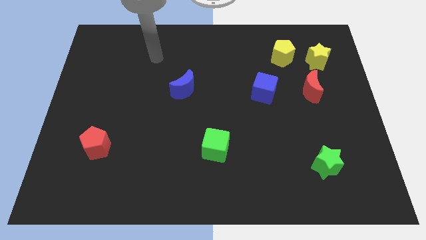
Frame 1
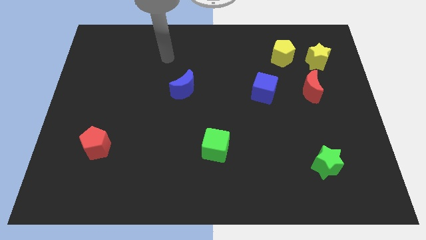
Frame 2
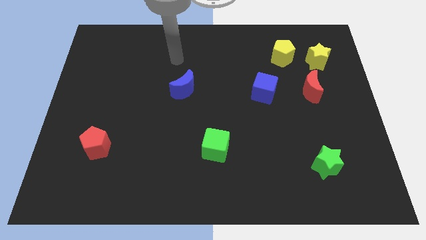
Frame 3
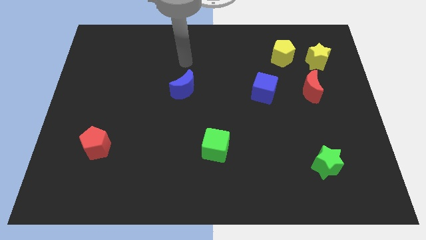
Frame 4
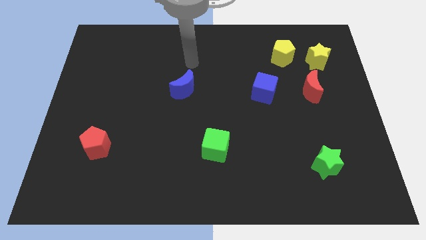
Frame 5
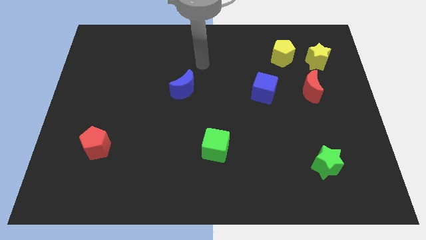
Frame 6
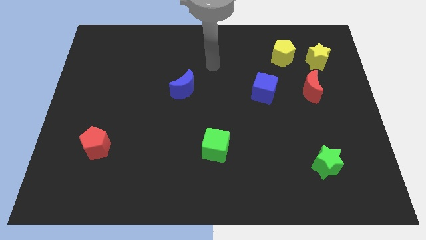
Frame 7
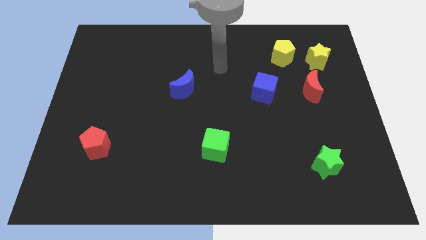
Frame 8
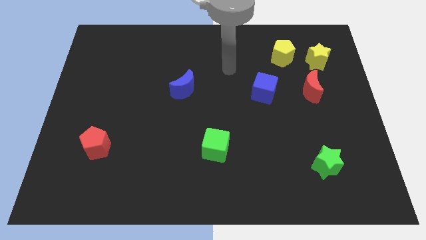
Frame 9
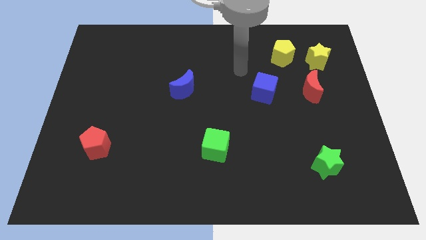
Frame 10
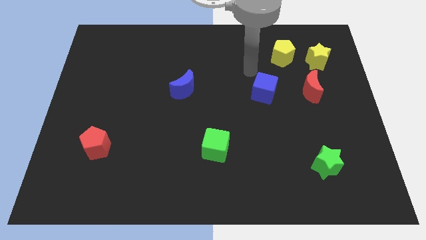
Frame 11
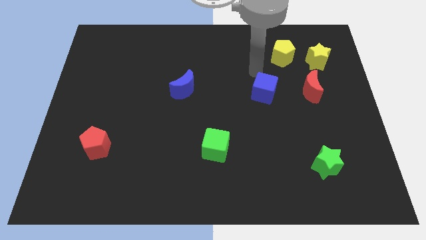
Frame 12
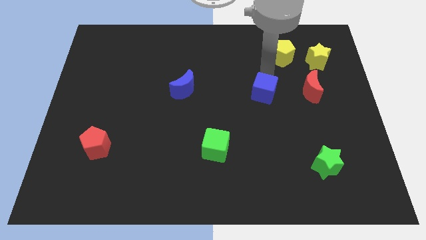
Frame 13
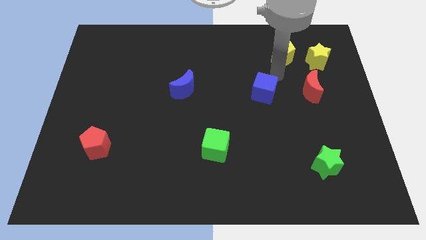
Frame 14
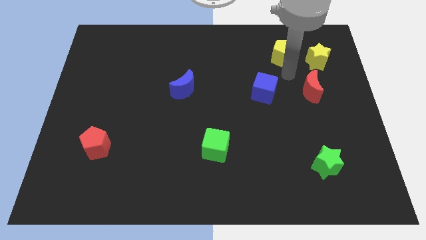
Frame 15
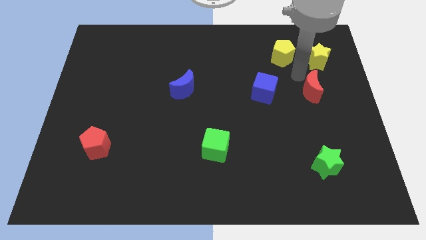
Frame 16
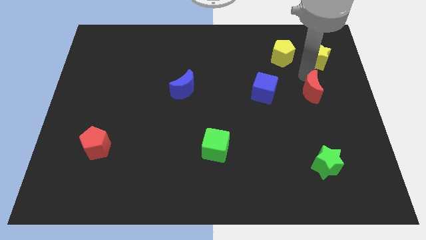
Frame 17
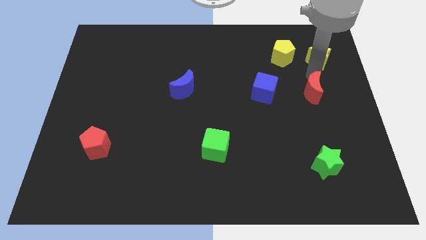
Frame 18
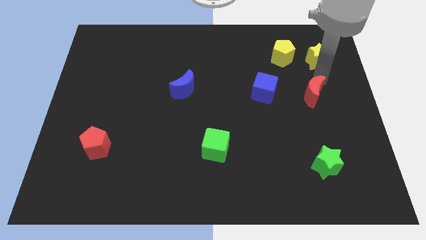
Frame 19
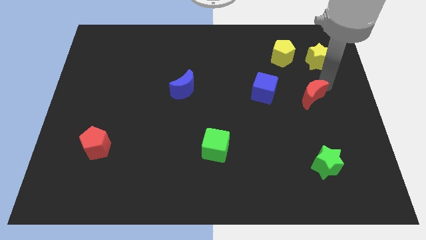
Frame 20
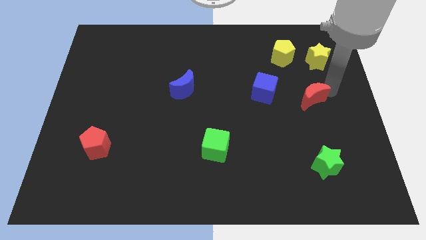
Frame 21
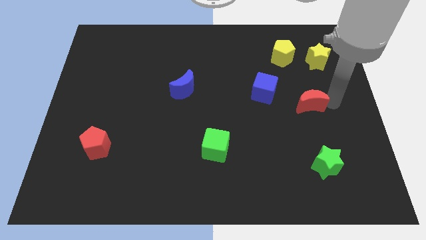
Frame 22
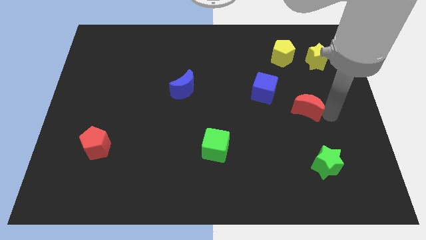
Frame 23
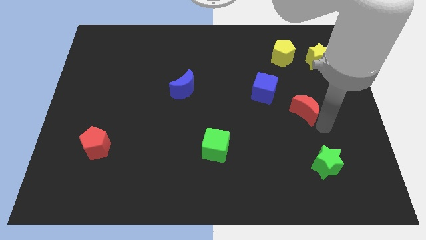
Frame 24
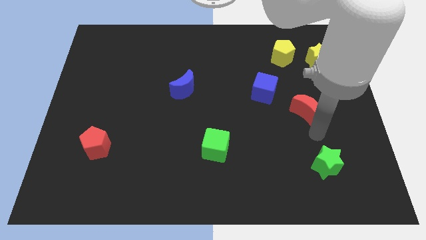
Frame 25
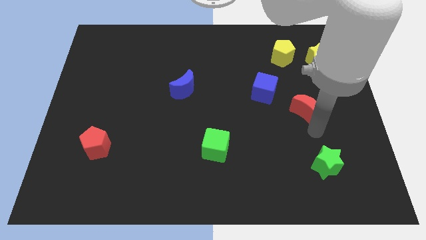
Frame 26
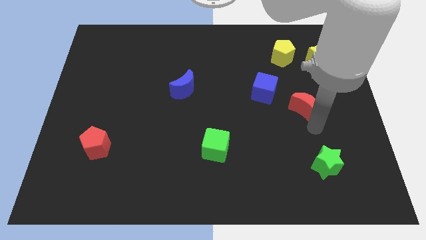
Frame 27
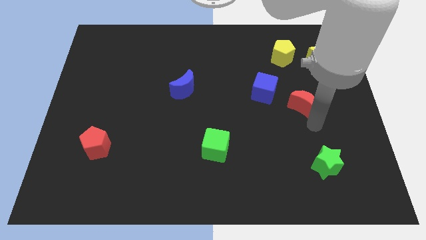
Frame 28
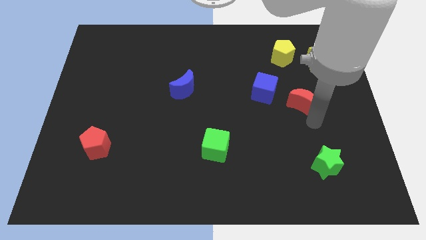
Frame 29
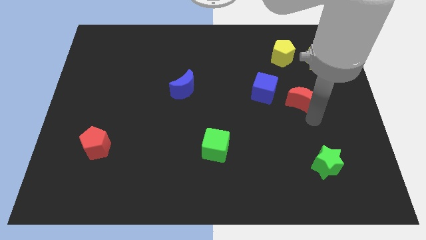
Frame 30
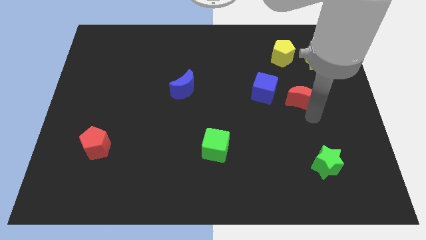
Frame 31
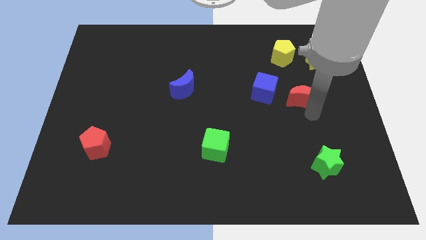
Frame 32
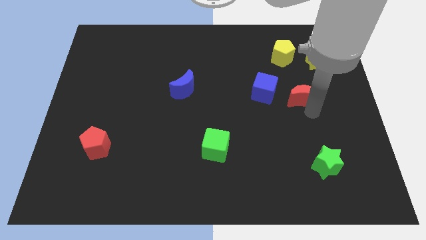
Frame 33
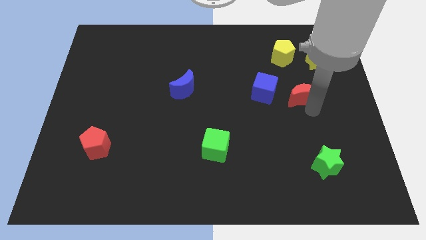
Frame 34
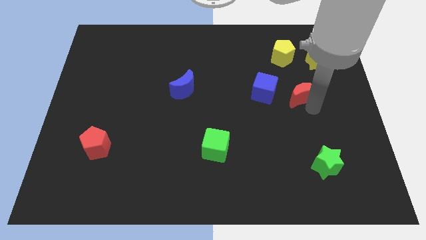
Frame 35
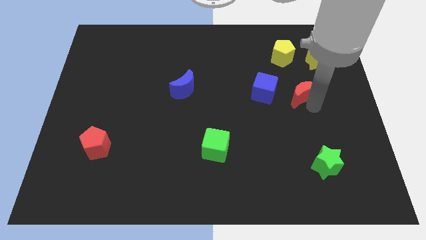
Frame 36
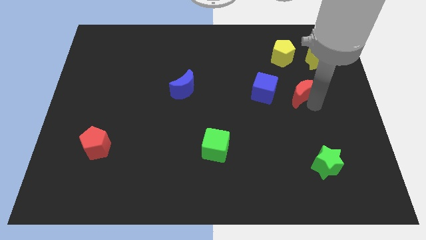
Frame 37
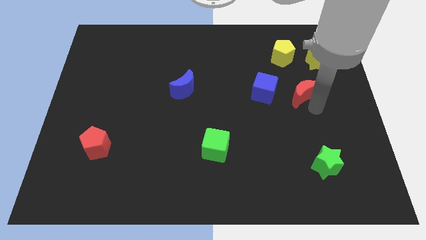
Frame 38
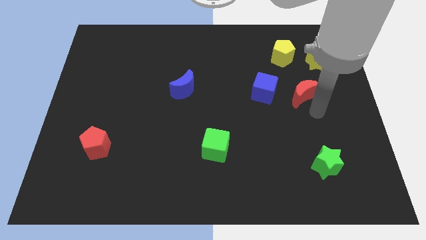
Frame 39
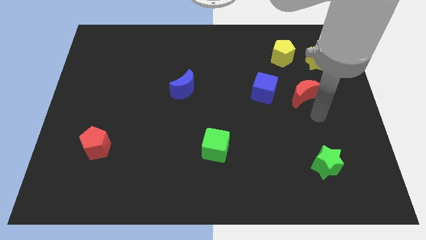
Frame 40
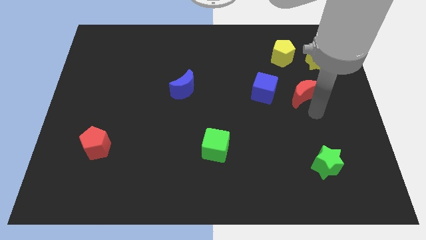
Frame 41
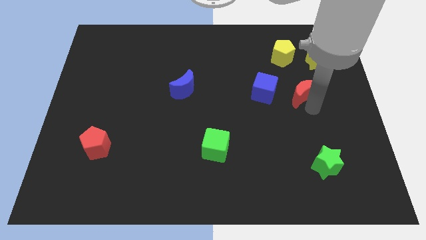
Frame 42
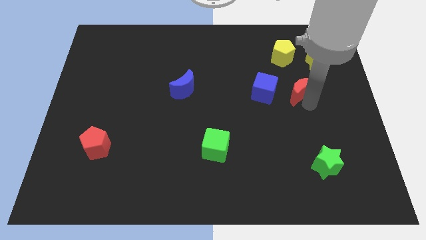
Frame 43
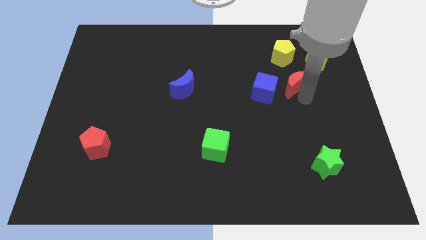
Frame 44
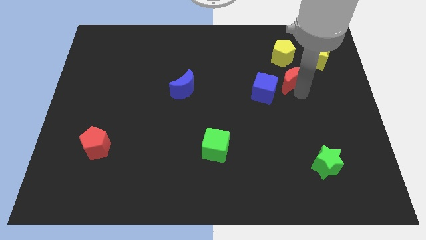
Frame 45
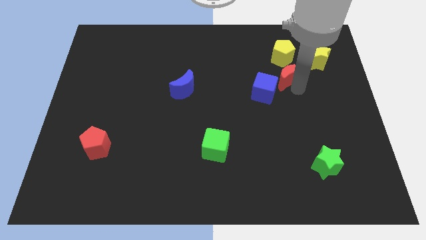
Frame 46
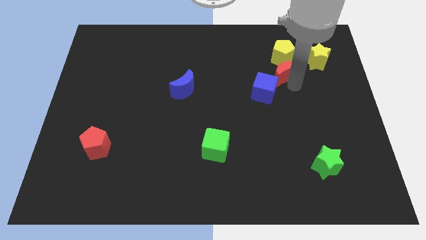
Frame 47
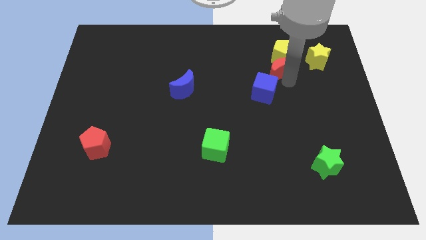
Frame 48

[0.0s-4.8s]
put the red moon left of the yellow star

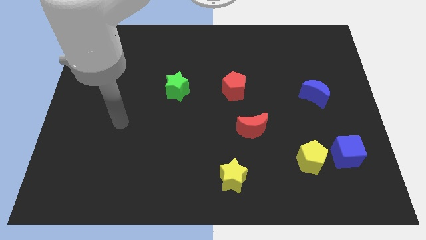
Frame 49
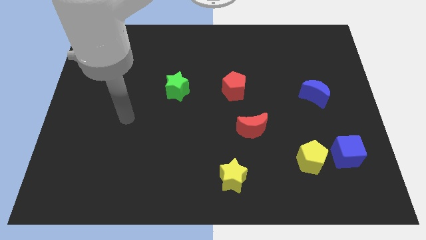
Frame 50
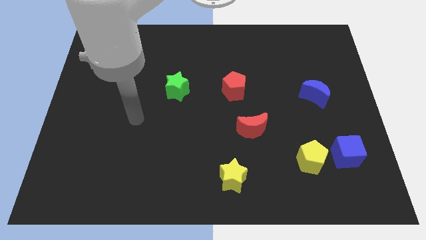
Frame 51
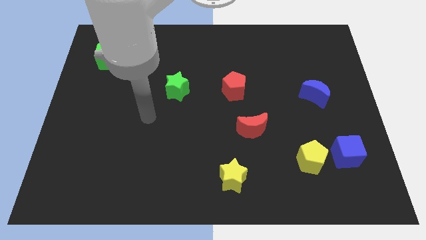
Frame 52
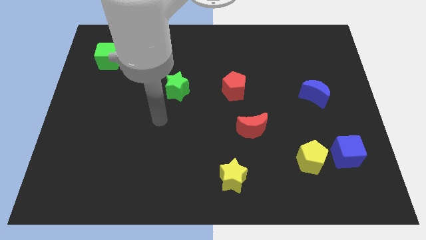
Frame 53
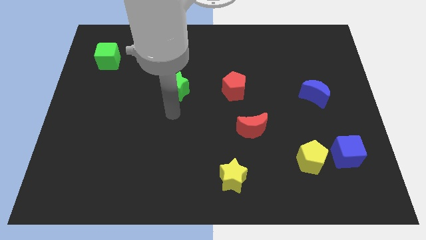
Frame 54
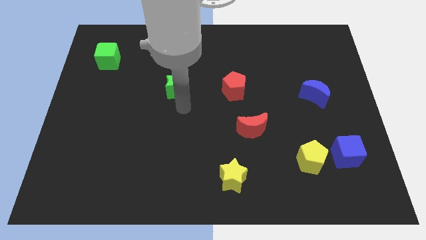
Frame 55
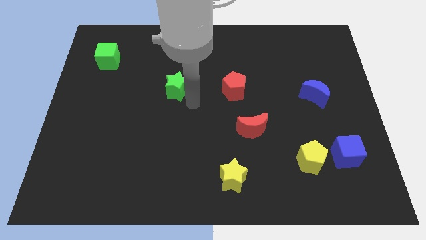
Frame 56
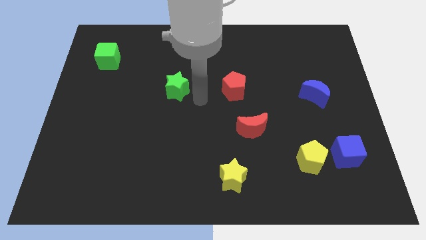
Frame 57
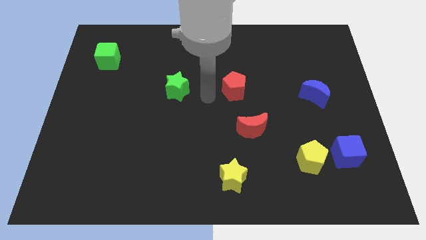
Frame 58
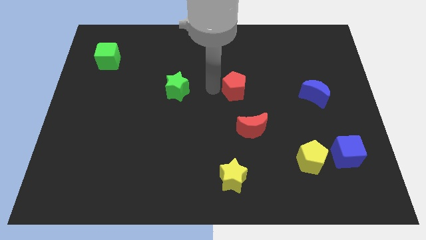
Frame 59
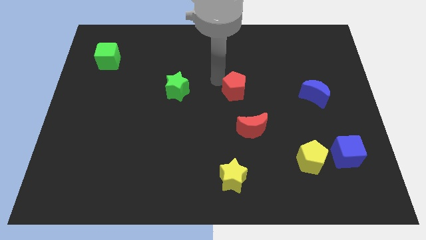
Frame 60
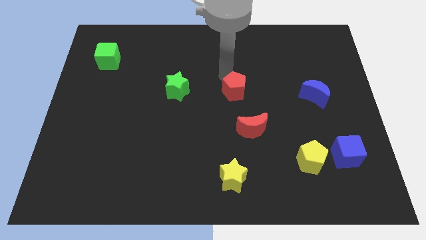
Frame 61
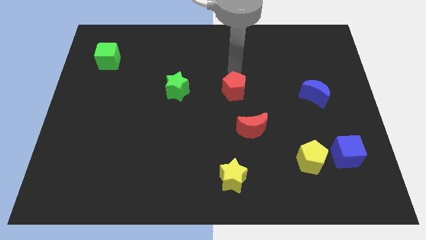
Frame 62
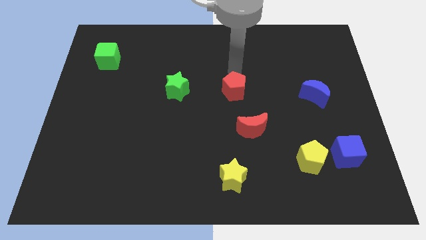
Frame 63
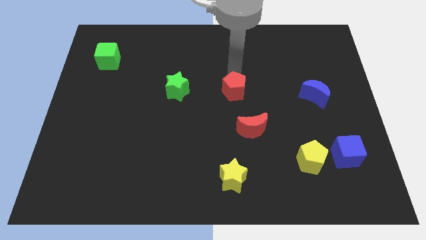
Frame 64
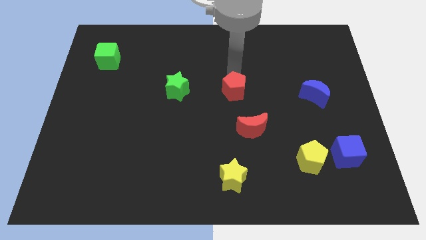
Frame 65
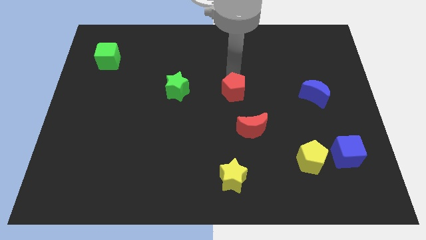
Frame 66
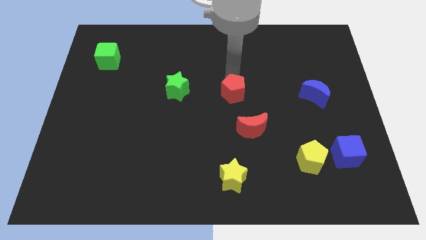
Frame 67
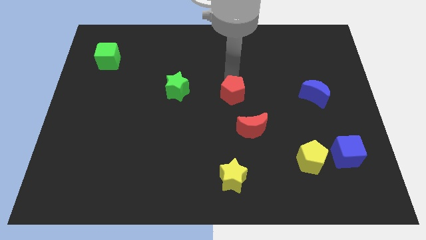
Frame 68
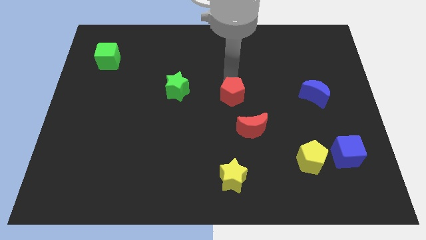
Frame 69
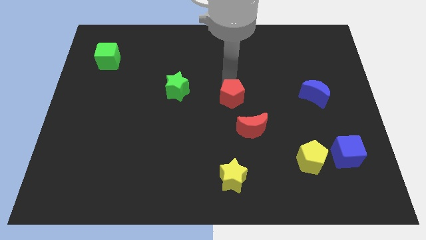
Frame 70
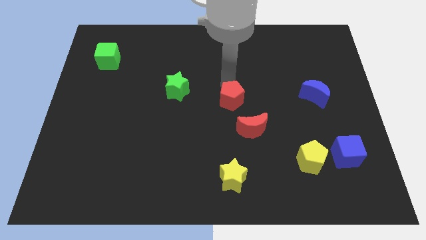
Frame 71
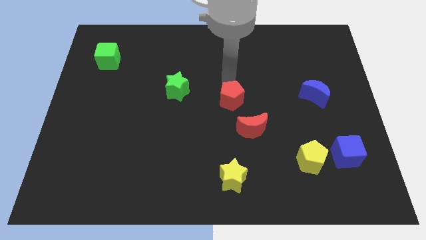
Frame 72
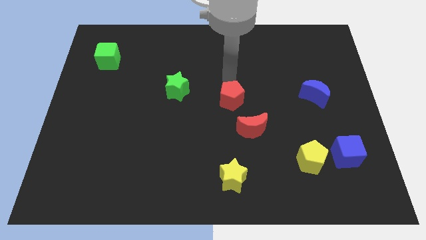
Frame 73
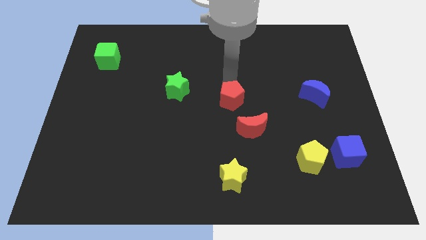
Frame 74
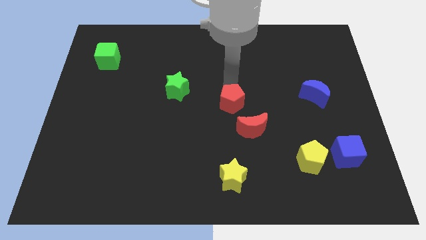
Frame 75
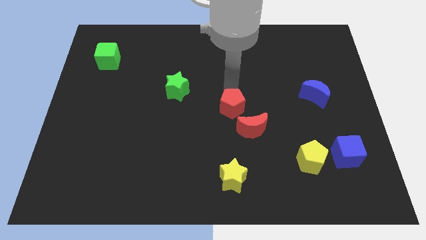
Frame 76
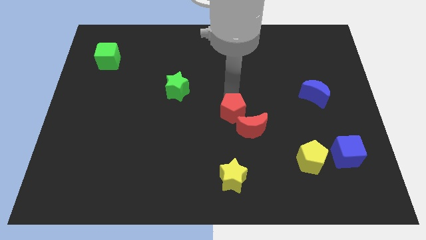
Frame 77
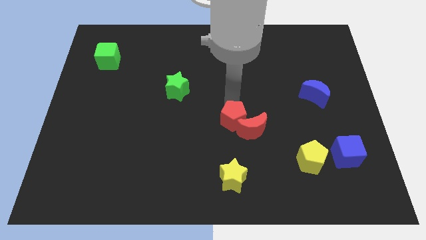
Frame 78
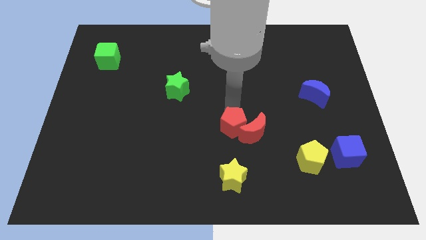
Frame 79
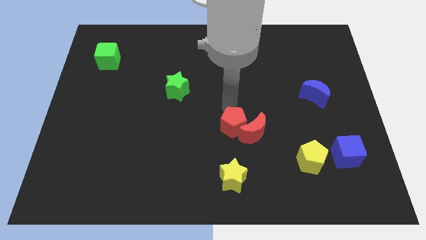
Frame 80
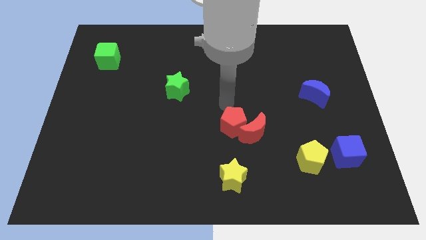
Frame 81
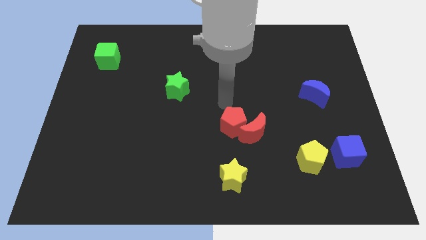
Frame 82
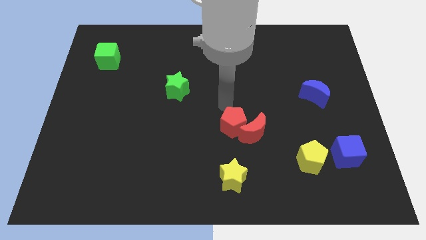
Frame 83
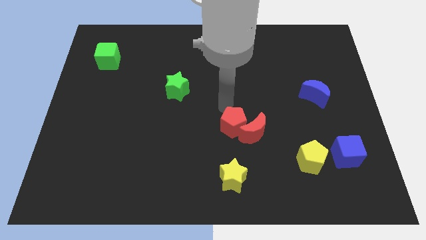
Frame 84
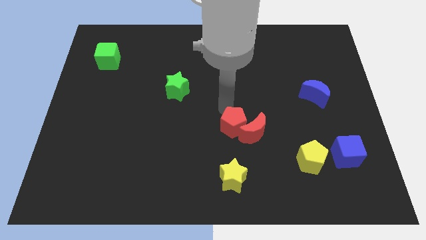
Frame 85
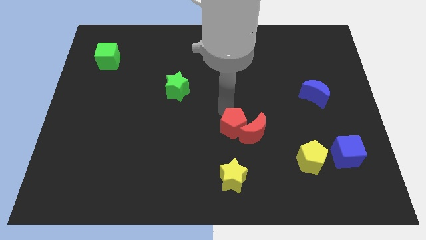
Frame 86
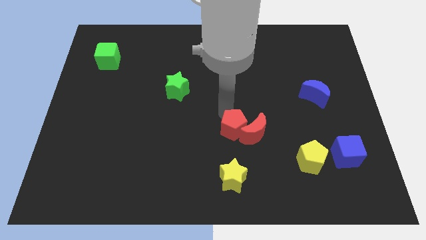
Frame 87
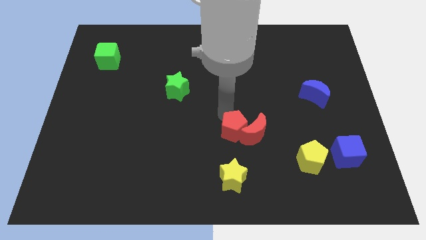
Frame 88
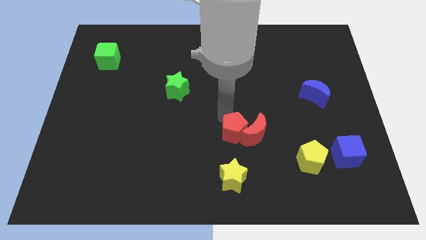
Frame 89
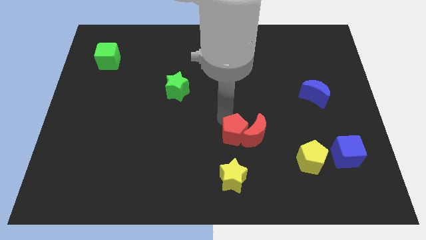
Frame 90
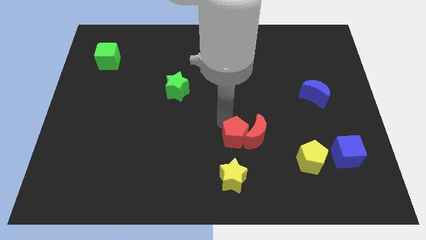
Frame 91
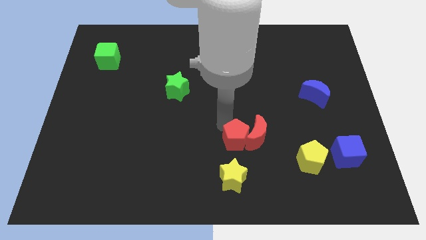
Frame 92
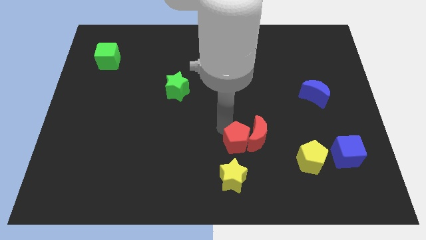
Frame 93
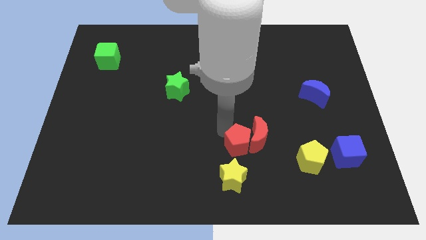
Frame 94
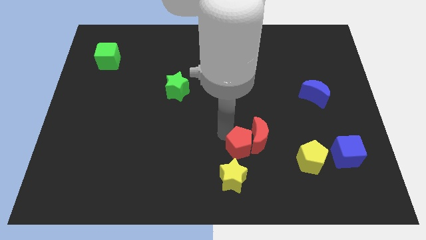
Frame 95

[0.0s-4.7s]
push the red pentagon to the top right side of the yellow star
